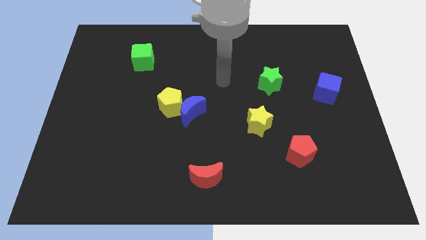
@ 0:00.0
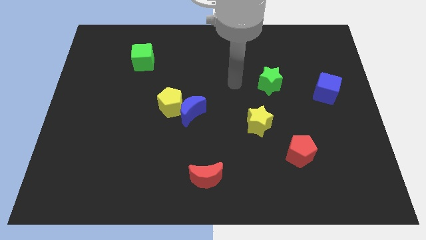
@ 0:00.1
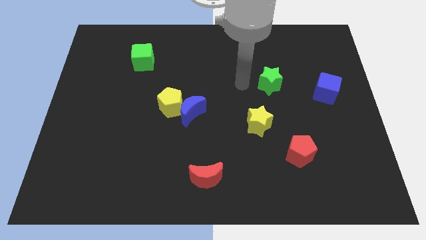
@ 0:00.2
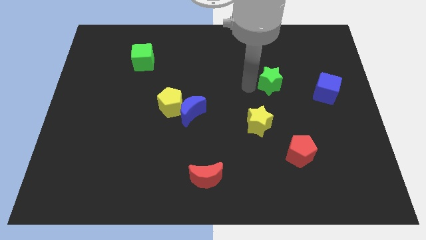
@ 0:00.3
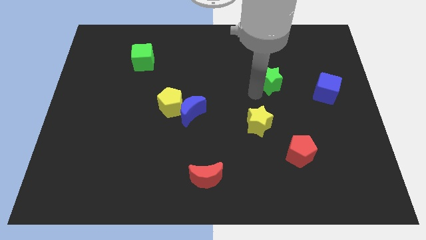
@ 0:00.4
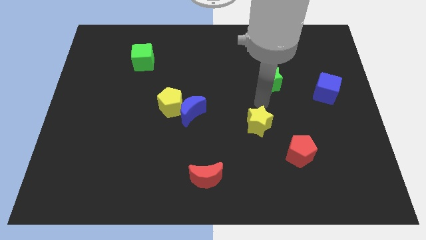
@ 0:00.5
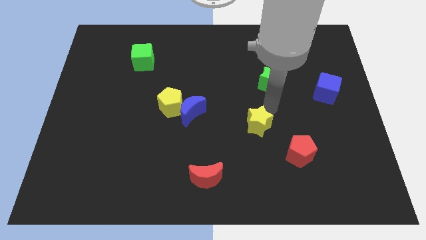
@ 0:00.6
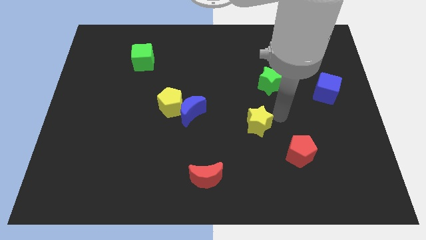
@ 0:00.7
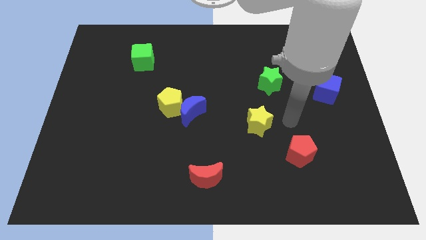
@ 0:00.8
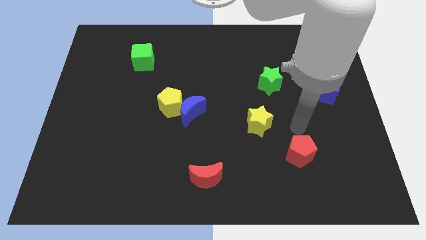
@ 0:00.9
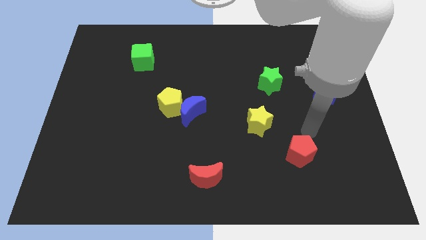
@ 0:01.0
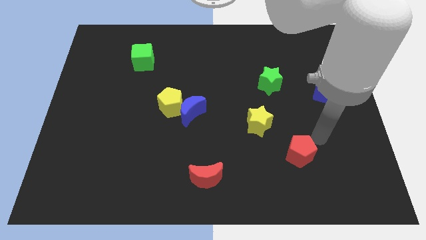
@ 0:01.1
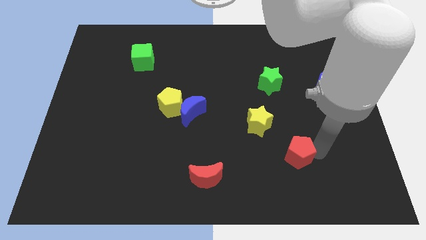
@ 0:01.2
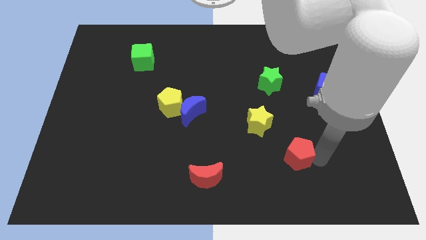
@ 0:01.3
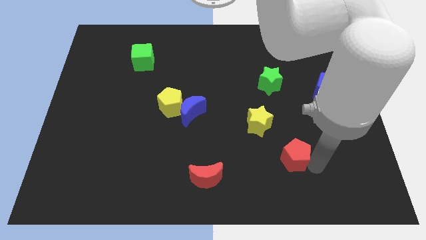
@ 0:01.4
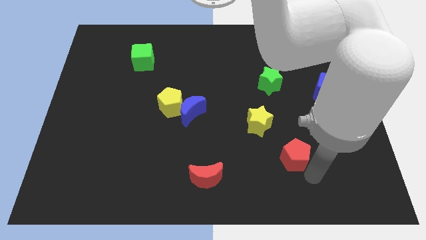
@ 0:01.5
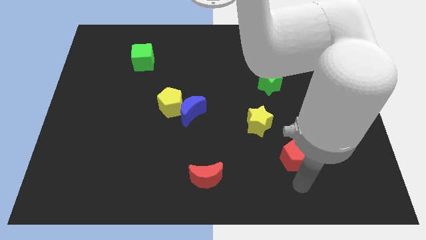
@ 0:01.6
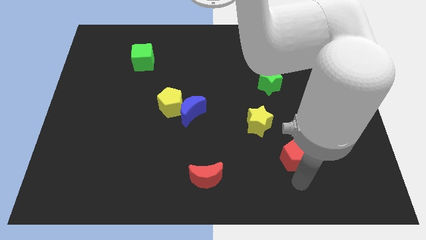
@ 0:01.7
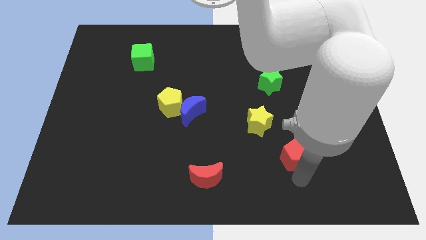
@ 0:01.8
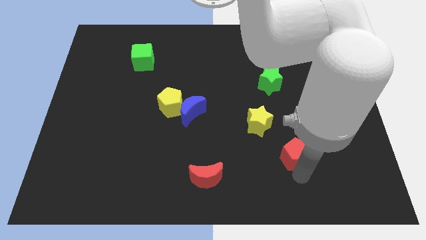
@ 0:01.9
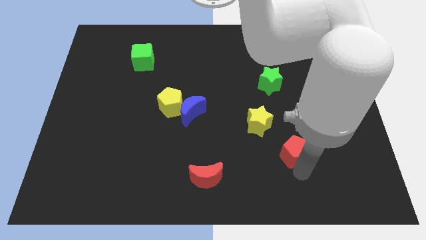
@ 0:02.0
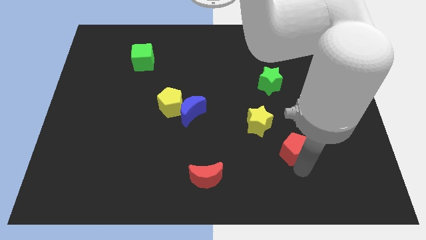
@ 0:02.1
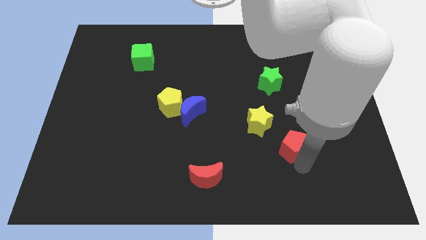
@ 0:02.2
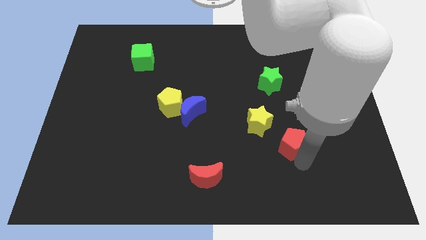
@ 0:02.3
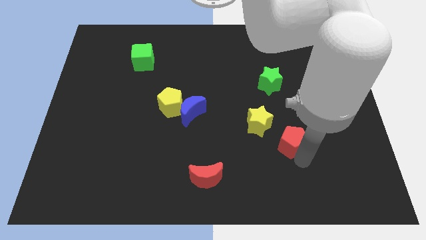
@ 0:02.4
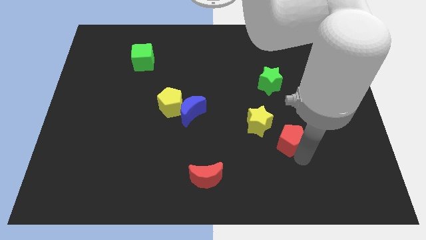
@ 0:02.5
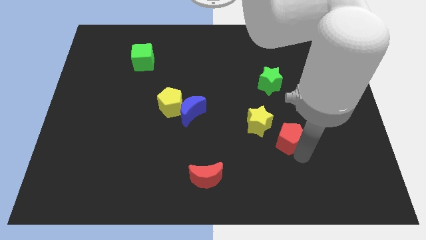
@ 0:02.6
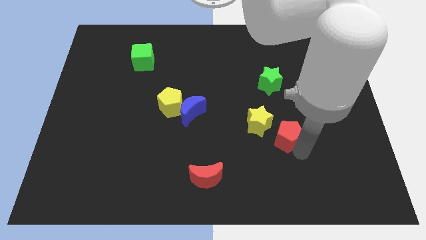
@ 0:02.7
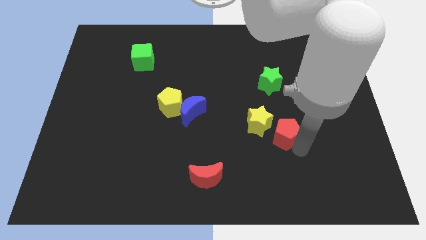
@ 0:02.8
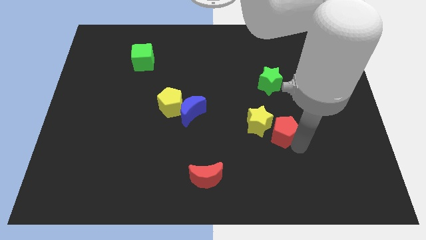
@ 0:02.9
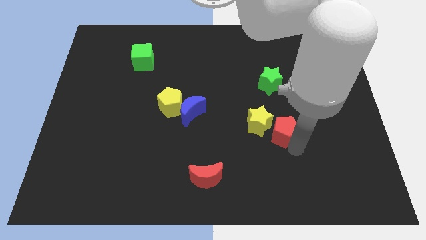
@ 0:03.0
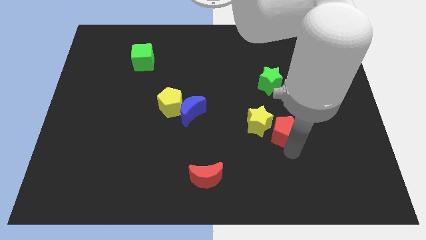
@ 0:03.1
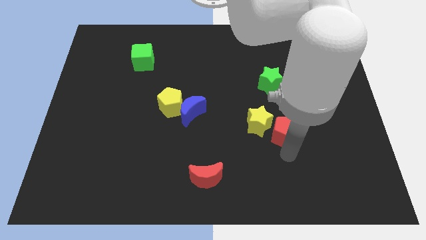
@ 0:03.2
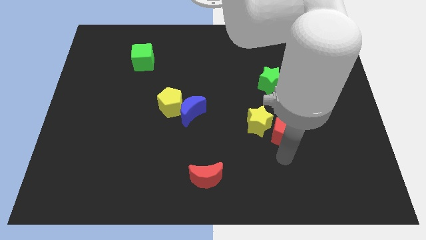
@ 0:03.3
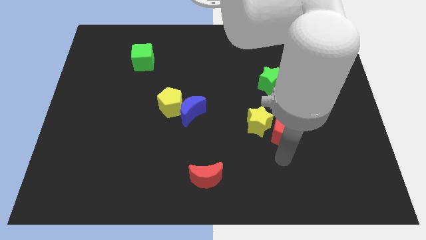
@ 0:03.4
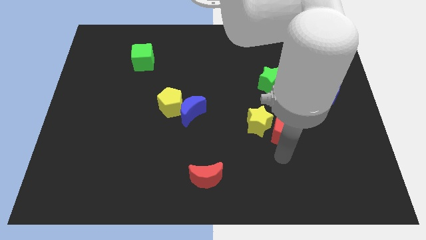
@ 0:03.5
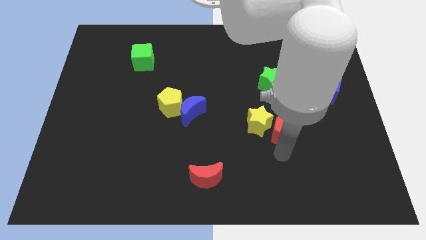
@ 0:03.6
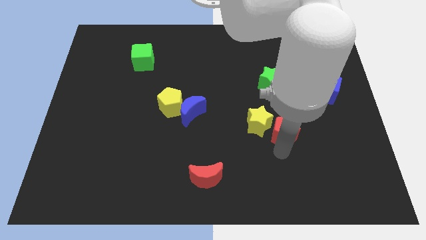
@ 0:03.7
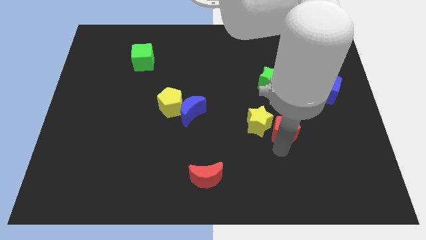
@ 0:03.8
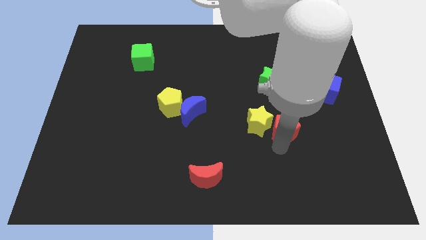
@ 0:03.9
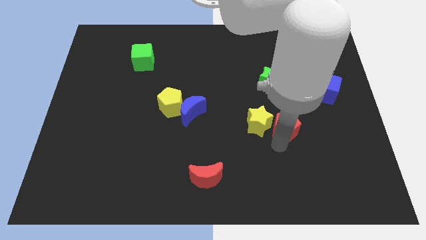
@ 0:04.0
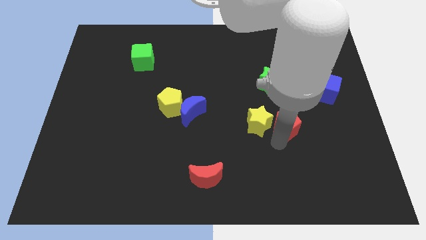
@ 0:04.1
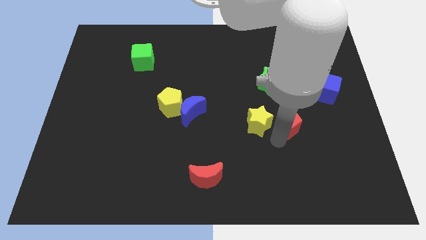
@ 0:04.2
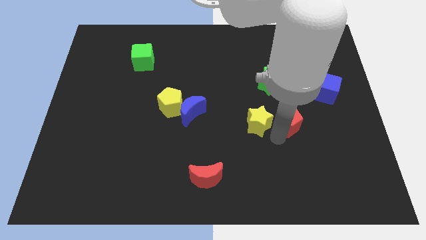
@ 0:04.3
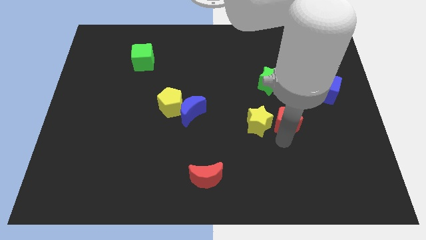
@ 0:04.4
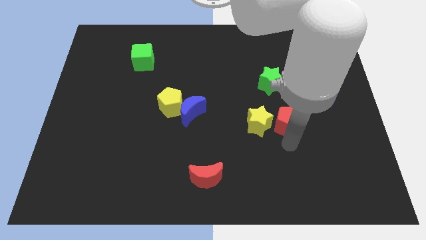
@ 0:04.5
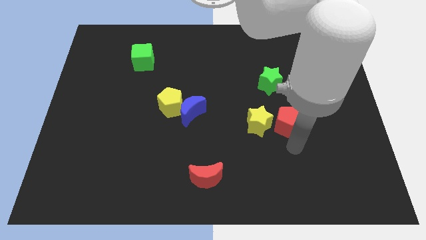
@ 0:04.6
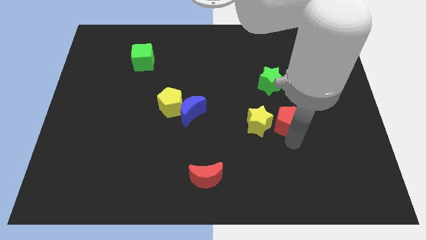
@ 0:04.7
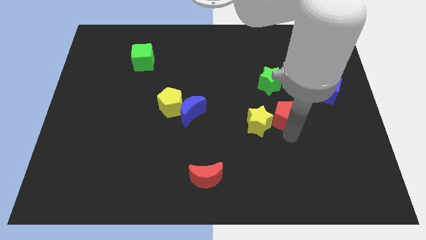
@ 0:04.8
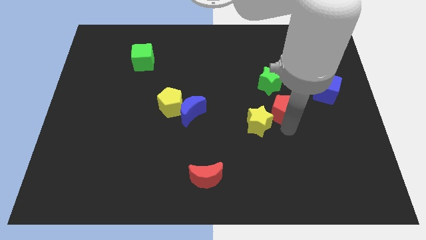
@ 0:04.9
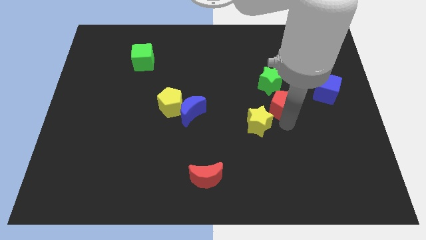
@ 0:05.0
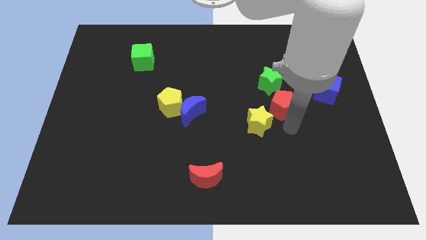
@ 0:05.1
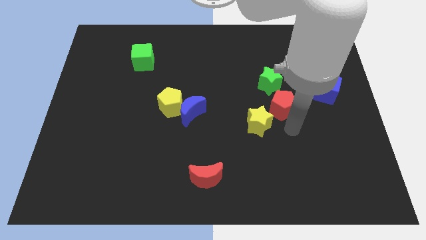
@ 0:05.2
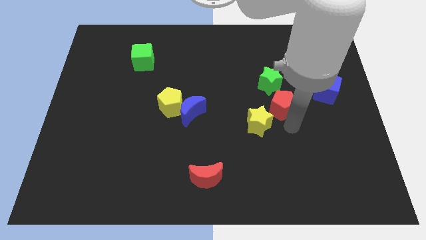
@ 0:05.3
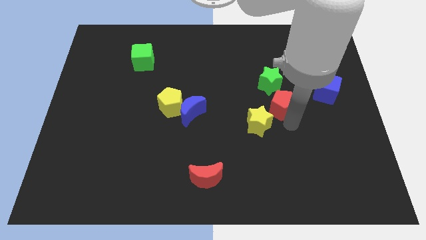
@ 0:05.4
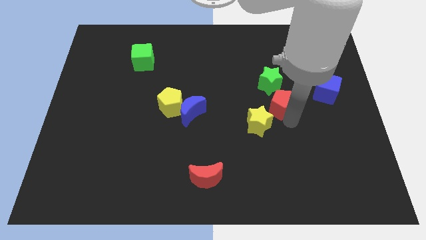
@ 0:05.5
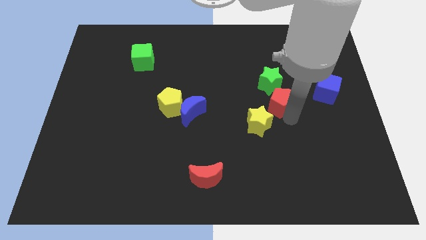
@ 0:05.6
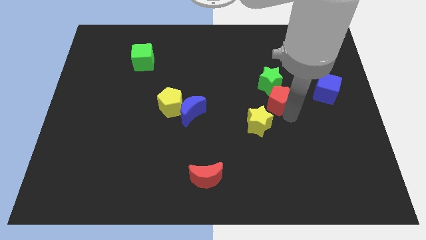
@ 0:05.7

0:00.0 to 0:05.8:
move the red pentagon next to the green star

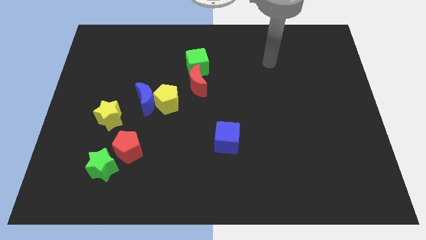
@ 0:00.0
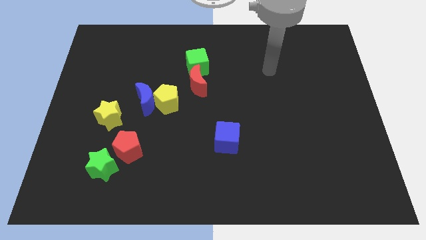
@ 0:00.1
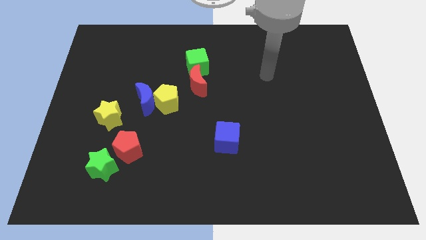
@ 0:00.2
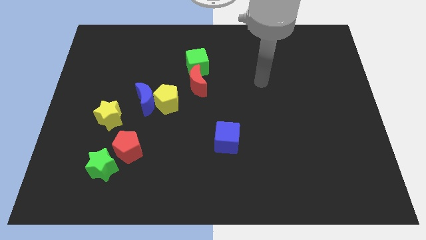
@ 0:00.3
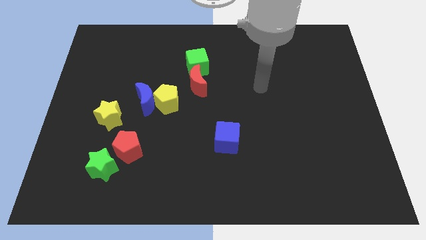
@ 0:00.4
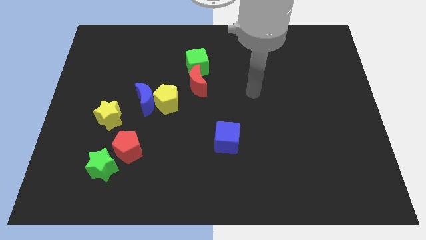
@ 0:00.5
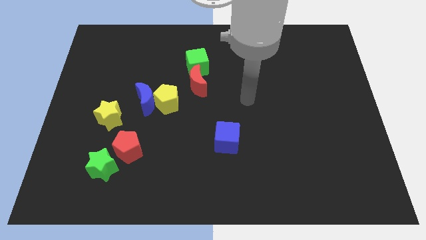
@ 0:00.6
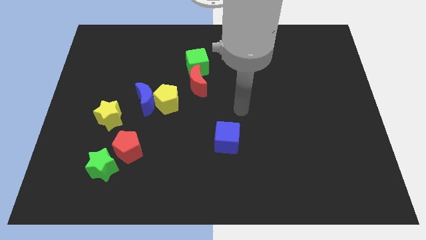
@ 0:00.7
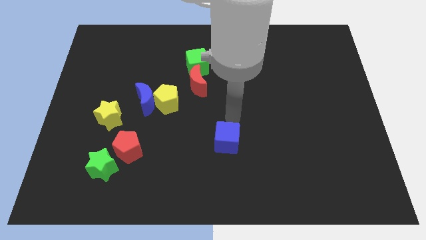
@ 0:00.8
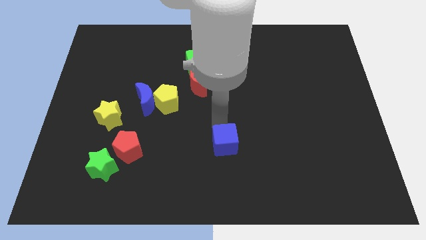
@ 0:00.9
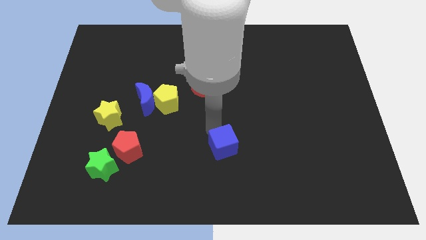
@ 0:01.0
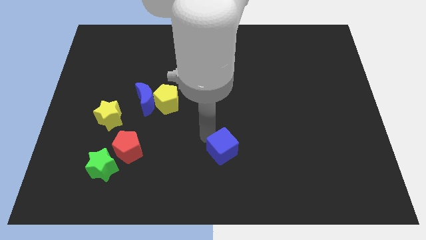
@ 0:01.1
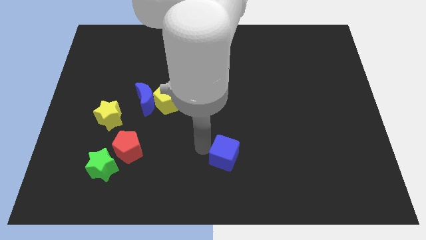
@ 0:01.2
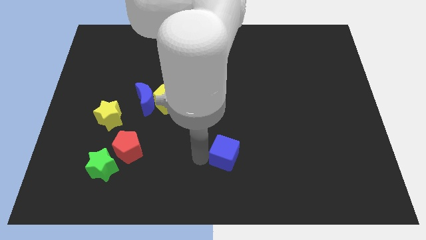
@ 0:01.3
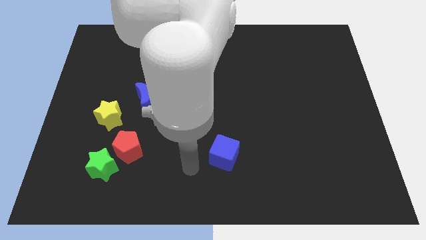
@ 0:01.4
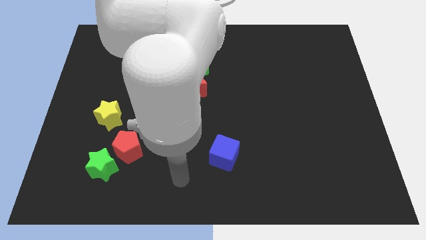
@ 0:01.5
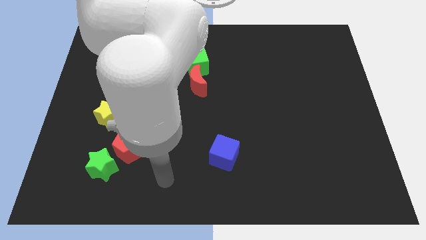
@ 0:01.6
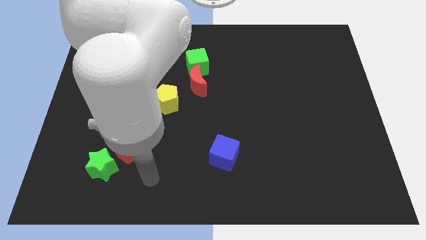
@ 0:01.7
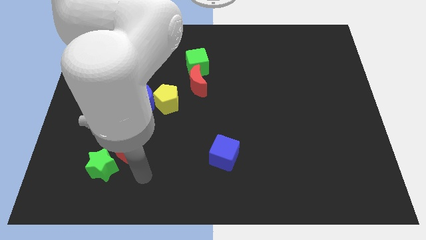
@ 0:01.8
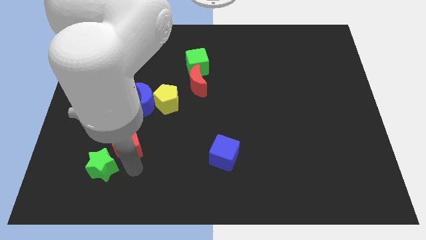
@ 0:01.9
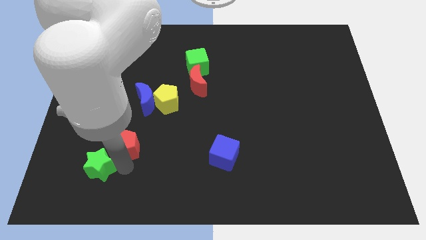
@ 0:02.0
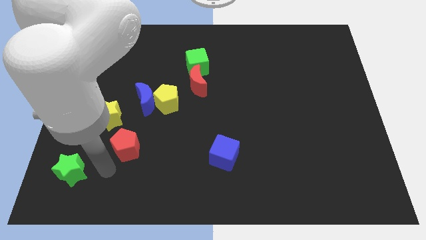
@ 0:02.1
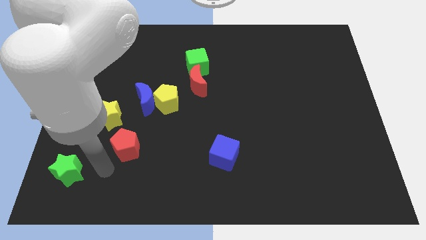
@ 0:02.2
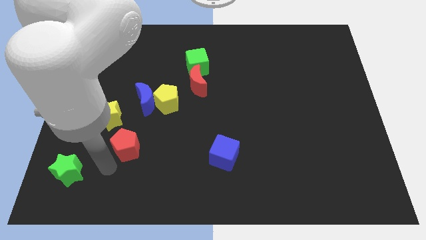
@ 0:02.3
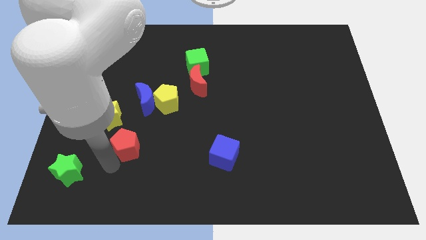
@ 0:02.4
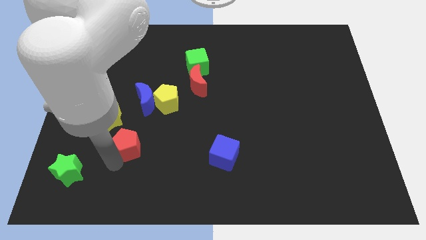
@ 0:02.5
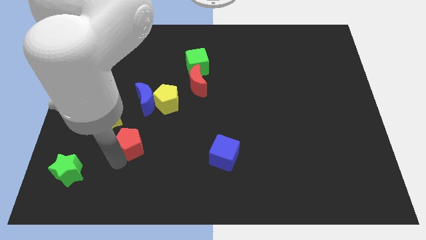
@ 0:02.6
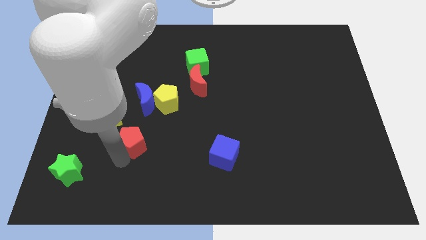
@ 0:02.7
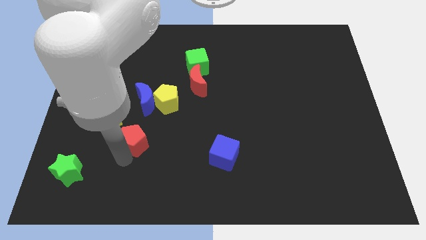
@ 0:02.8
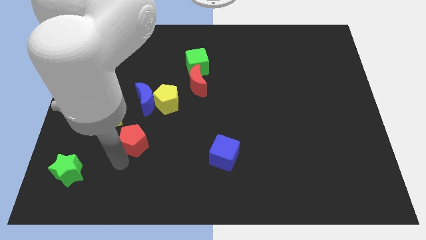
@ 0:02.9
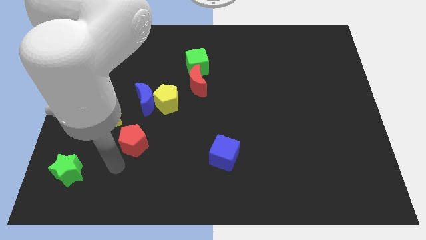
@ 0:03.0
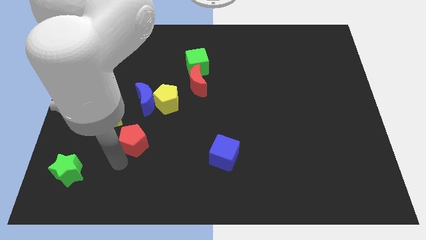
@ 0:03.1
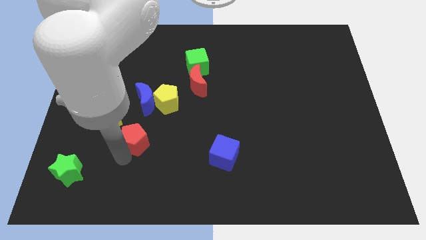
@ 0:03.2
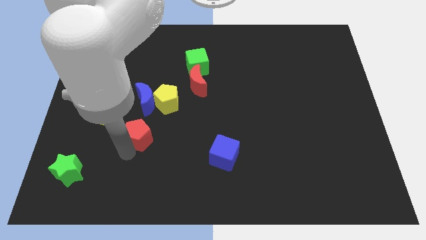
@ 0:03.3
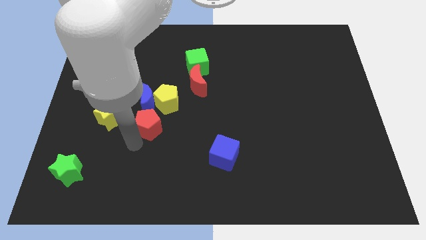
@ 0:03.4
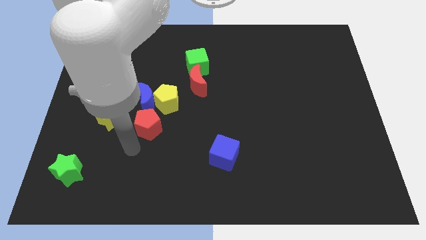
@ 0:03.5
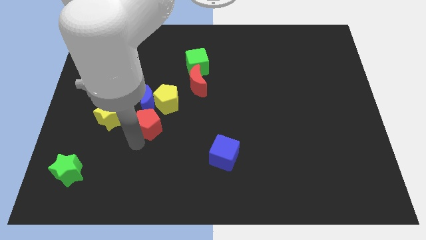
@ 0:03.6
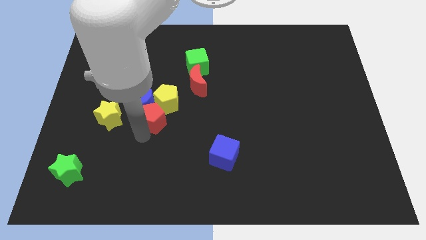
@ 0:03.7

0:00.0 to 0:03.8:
slide the red pentagon close to the yellow pentagon
